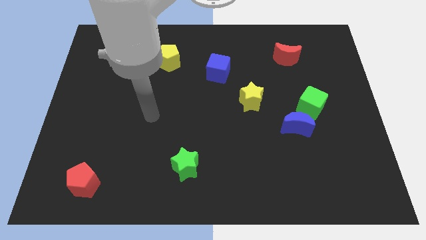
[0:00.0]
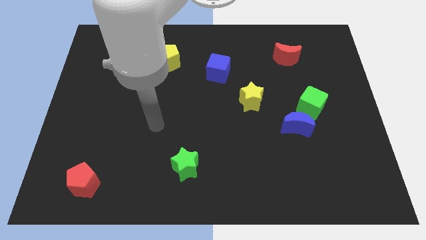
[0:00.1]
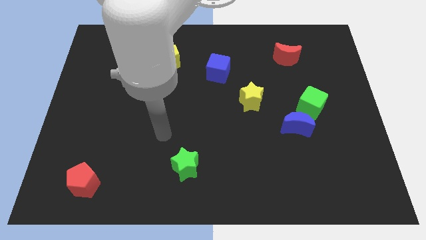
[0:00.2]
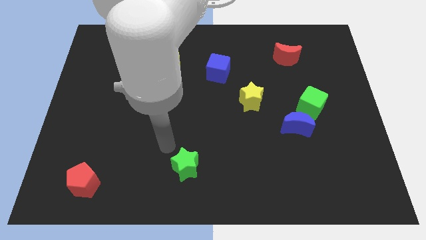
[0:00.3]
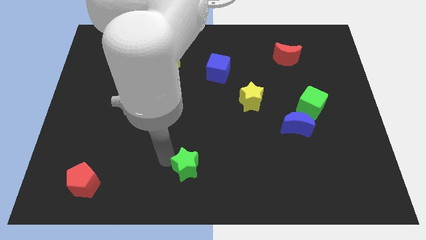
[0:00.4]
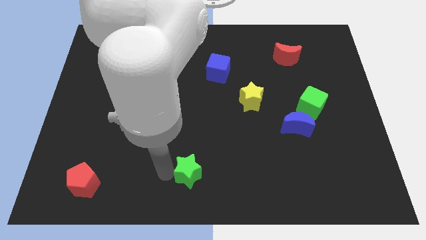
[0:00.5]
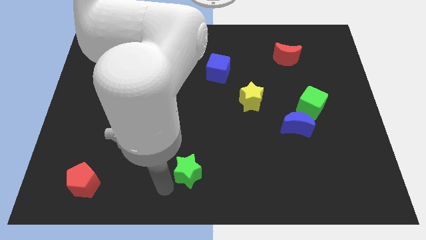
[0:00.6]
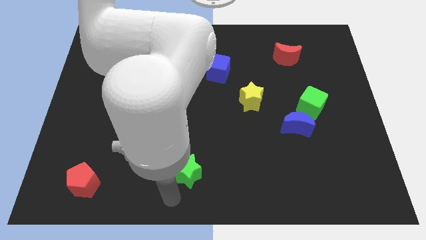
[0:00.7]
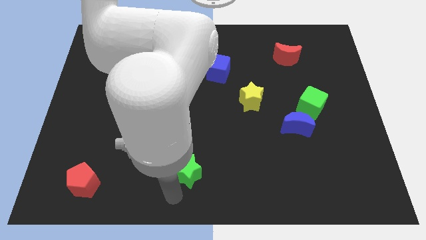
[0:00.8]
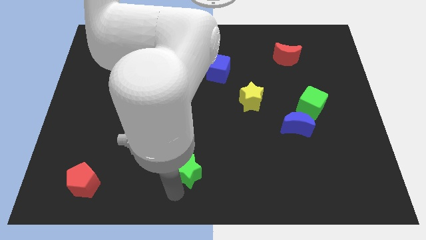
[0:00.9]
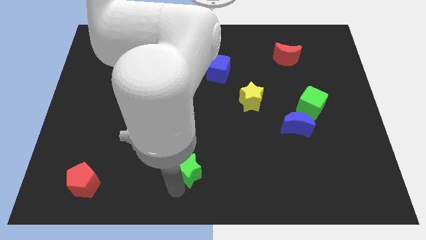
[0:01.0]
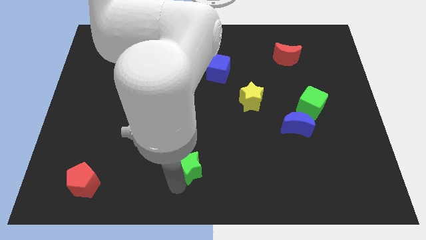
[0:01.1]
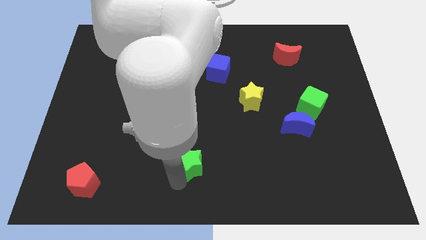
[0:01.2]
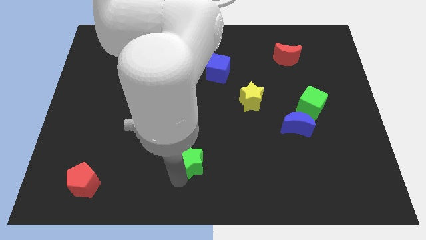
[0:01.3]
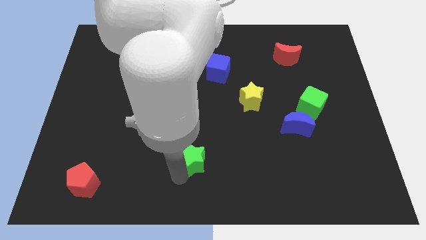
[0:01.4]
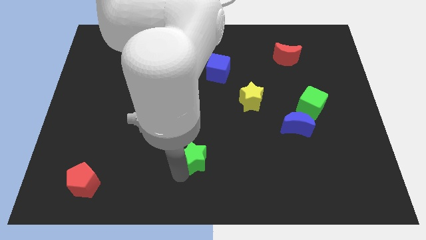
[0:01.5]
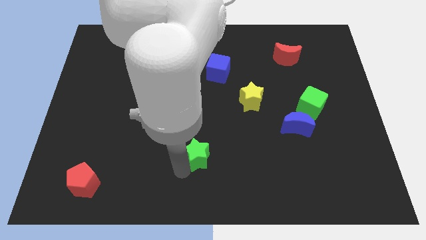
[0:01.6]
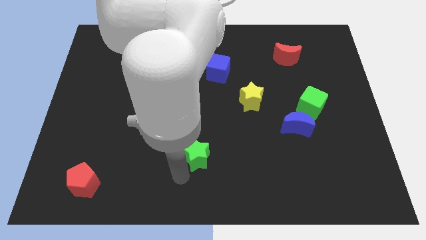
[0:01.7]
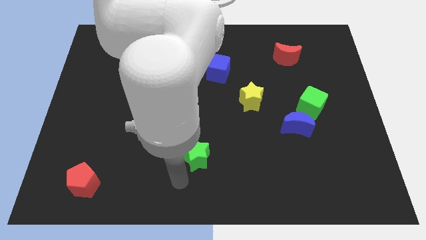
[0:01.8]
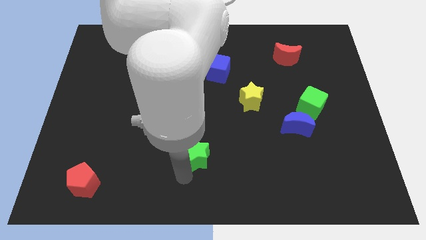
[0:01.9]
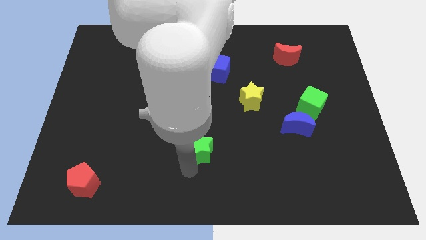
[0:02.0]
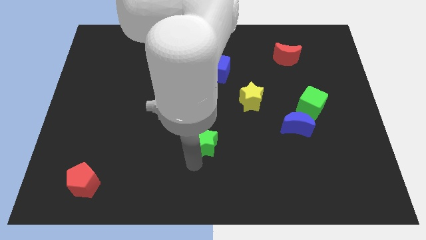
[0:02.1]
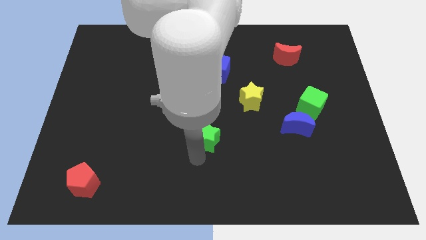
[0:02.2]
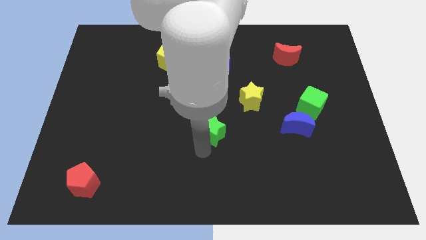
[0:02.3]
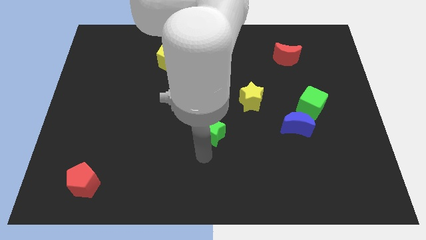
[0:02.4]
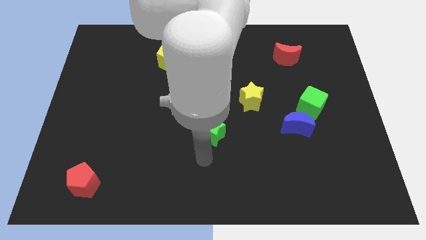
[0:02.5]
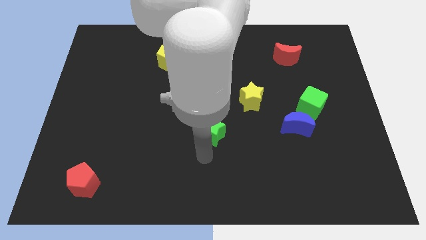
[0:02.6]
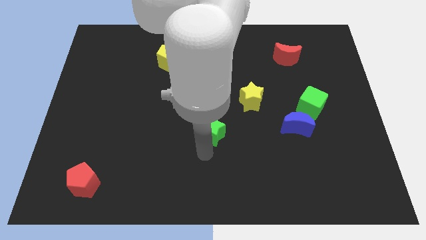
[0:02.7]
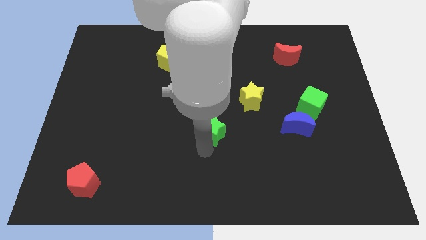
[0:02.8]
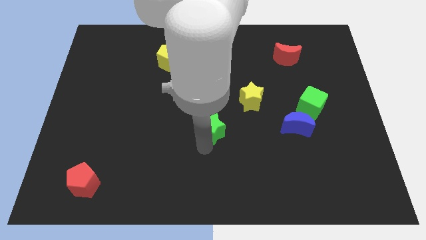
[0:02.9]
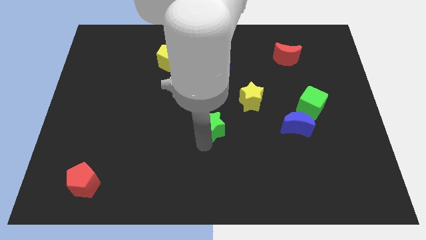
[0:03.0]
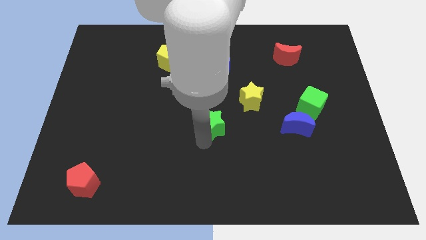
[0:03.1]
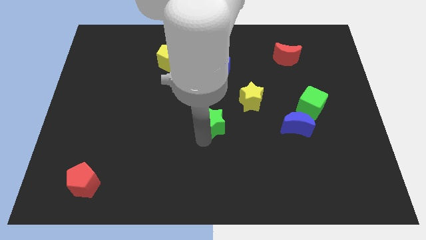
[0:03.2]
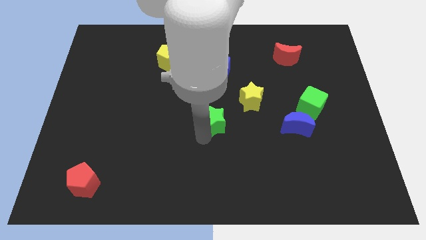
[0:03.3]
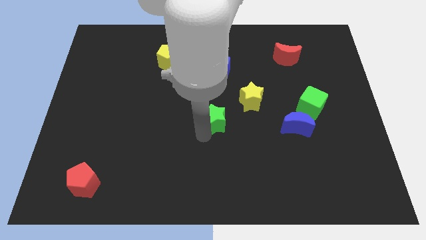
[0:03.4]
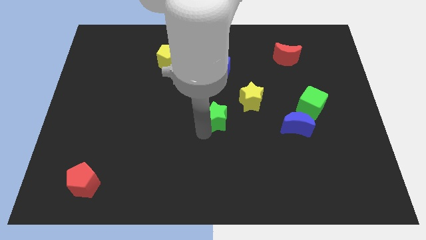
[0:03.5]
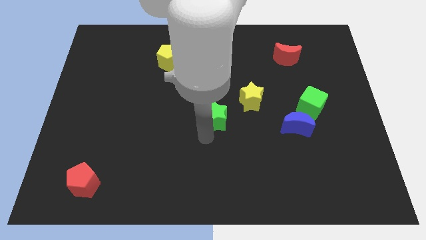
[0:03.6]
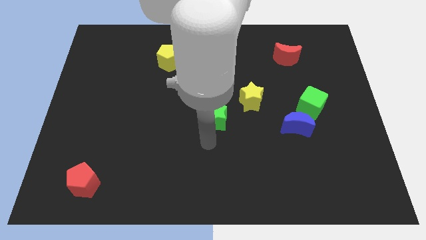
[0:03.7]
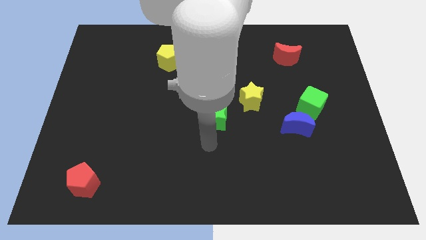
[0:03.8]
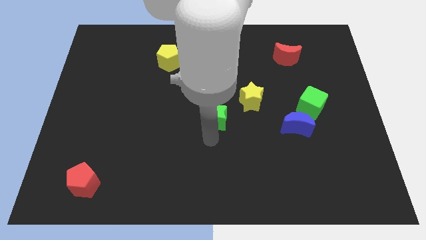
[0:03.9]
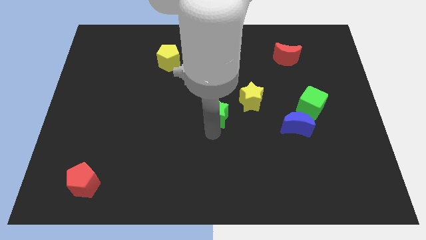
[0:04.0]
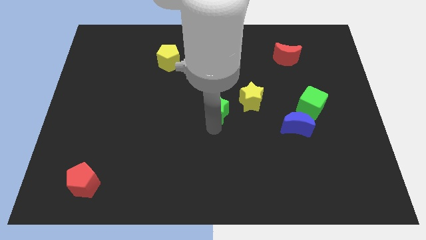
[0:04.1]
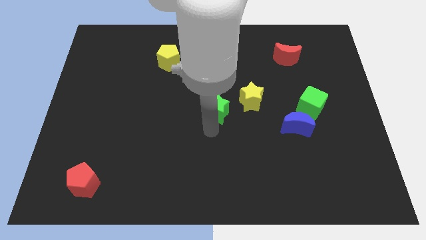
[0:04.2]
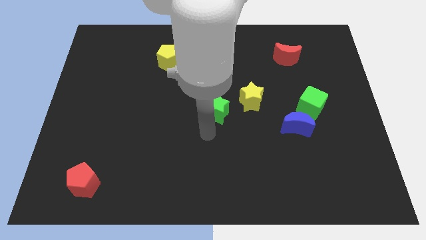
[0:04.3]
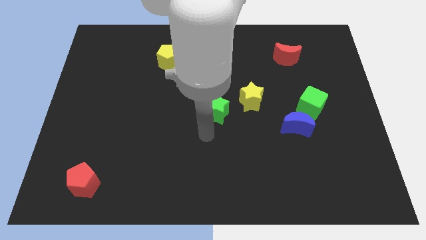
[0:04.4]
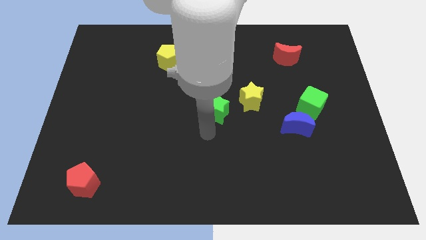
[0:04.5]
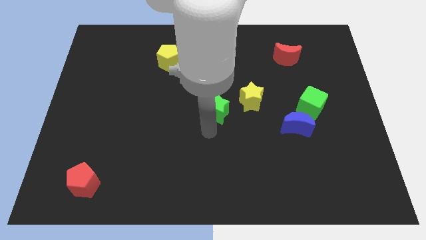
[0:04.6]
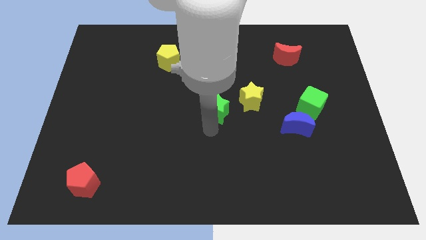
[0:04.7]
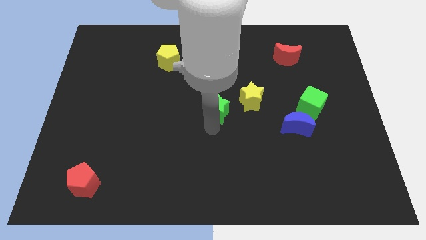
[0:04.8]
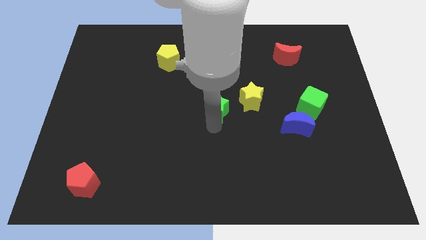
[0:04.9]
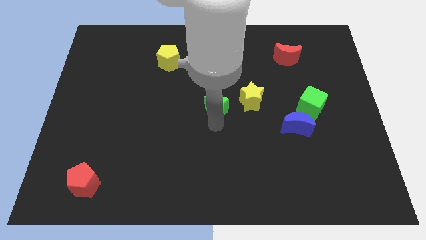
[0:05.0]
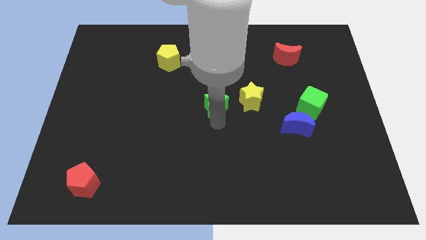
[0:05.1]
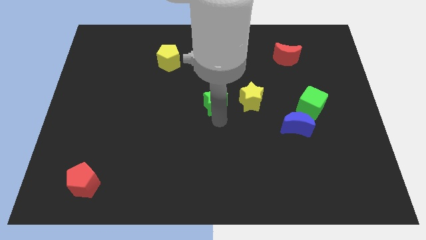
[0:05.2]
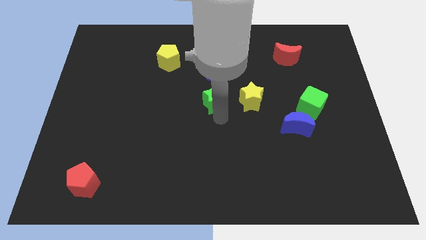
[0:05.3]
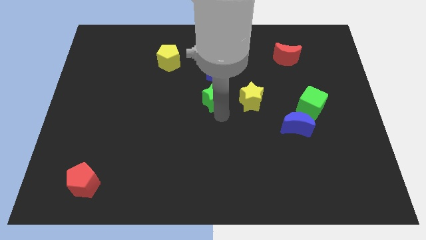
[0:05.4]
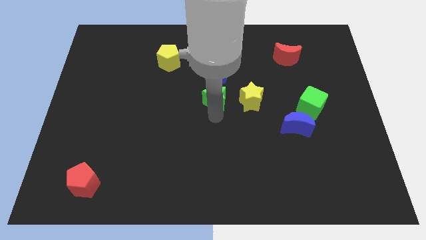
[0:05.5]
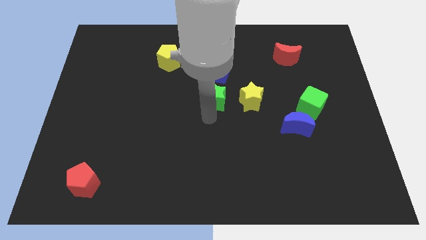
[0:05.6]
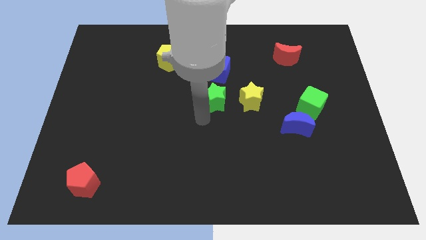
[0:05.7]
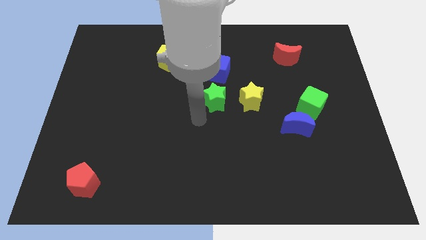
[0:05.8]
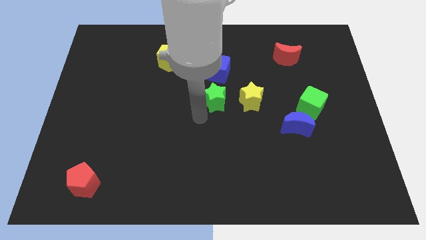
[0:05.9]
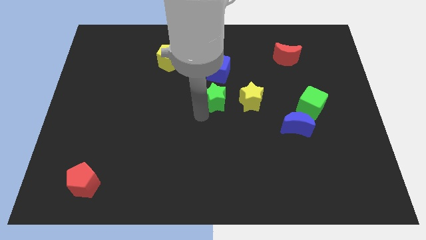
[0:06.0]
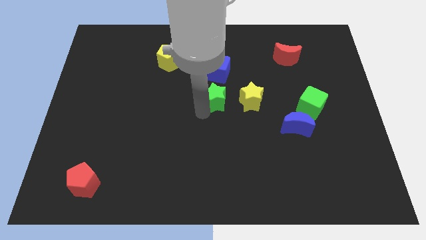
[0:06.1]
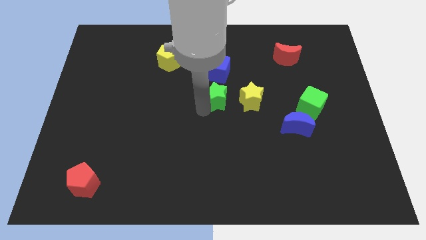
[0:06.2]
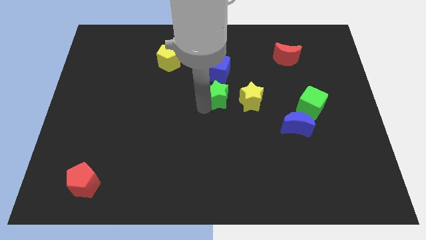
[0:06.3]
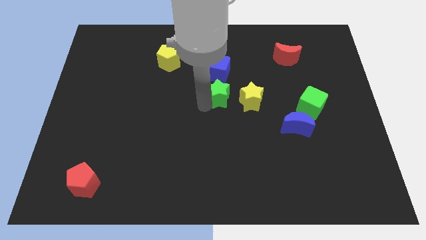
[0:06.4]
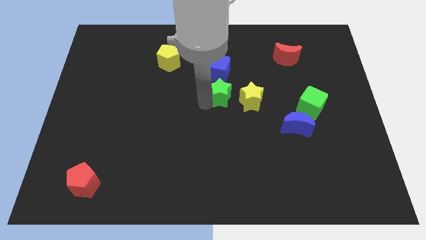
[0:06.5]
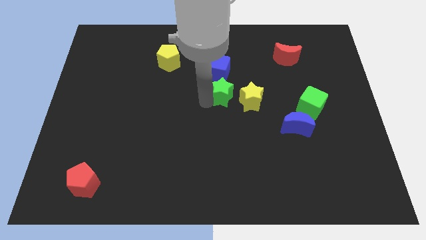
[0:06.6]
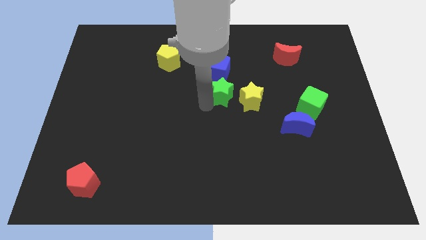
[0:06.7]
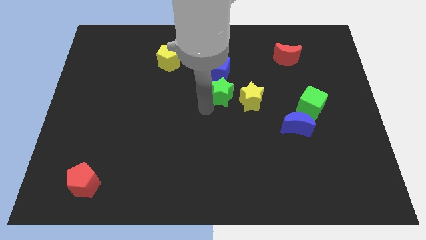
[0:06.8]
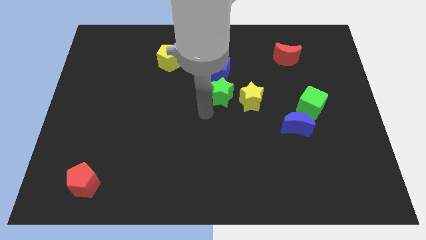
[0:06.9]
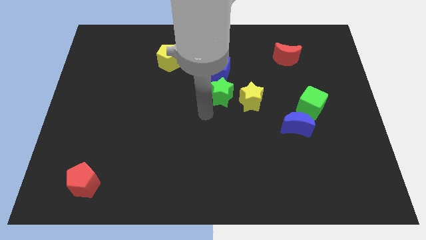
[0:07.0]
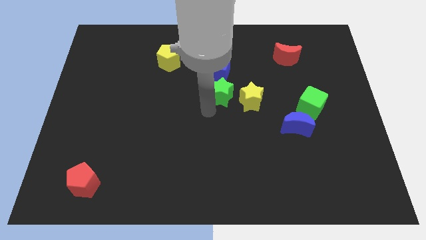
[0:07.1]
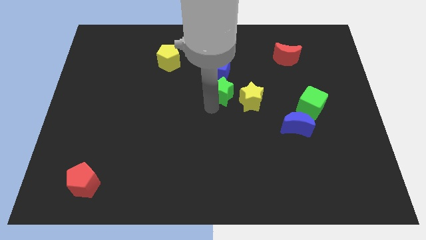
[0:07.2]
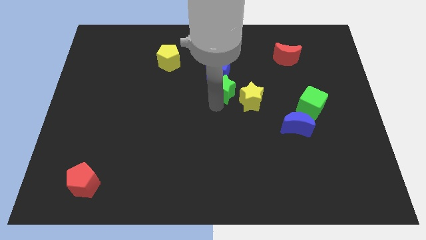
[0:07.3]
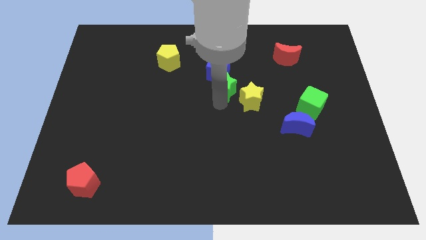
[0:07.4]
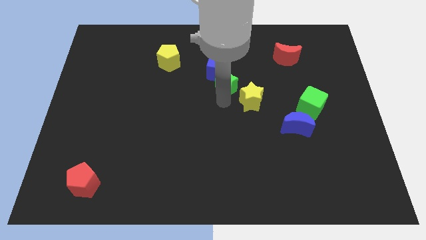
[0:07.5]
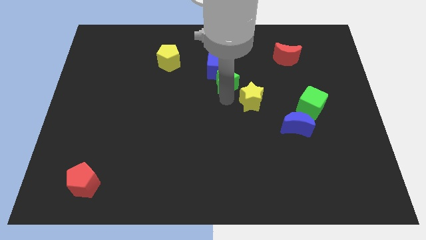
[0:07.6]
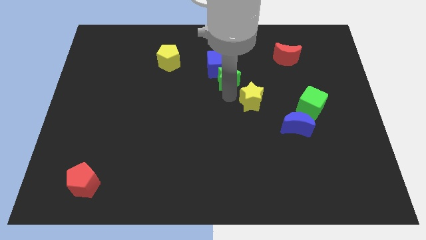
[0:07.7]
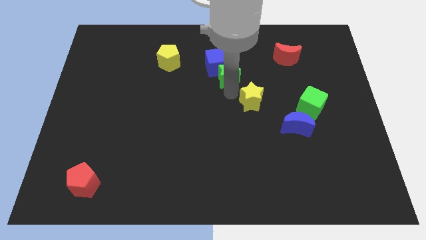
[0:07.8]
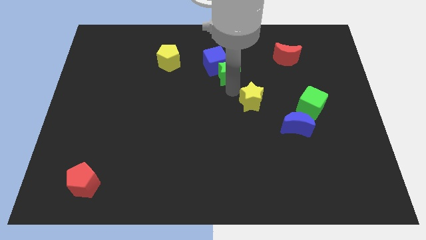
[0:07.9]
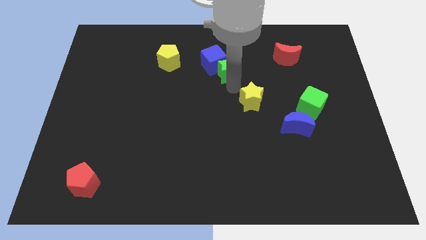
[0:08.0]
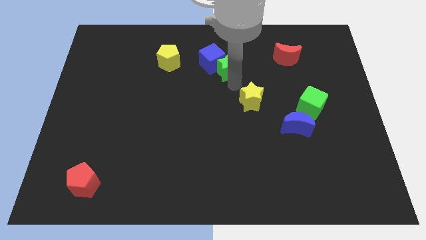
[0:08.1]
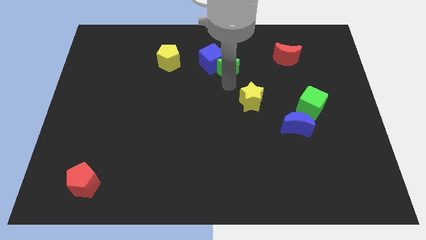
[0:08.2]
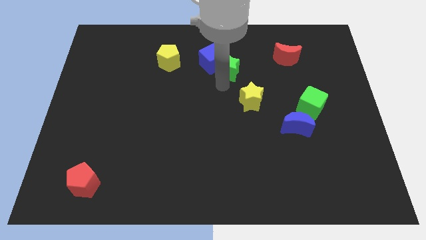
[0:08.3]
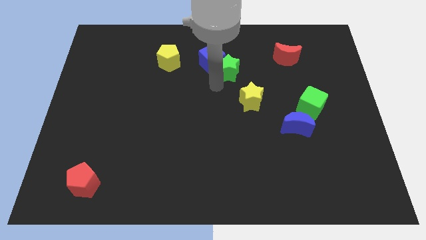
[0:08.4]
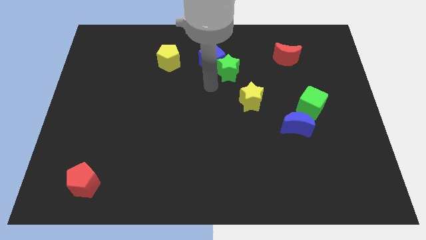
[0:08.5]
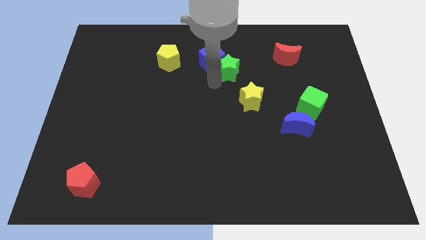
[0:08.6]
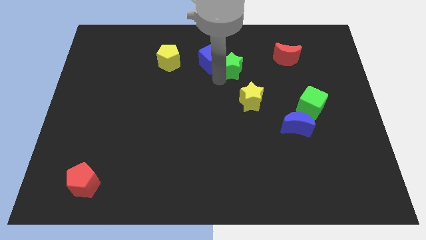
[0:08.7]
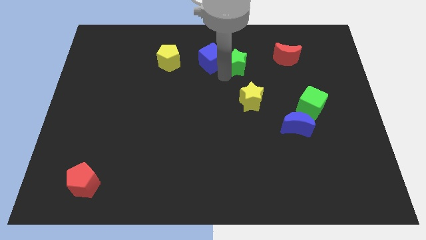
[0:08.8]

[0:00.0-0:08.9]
slide the green star just left of the red moon
